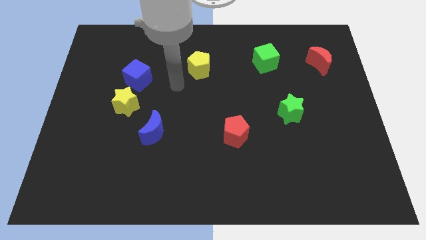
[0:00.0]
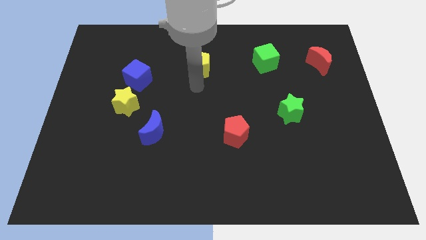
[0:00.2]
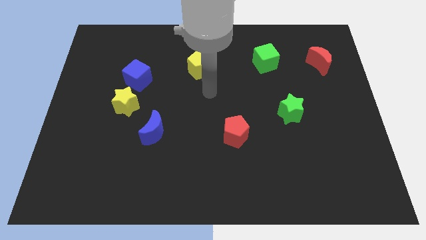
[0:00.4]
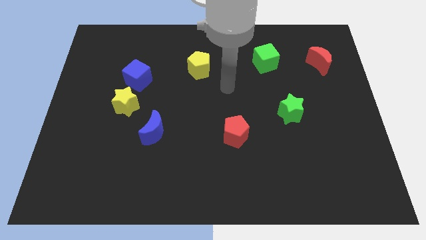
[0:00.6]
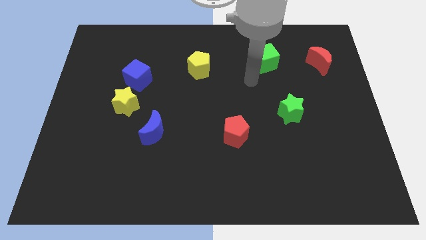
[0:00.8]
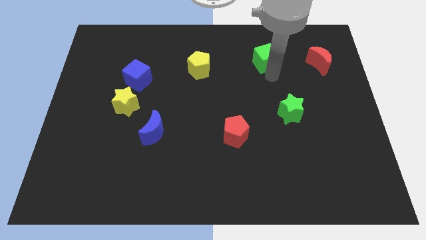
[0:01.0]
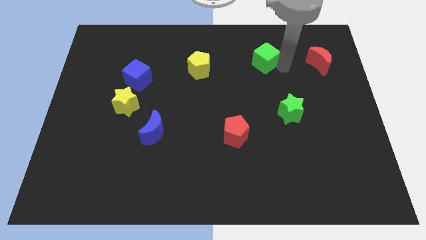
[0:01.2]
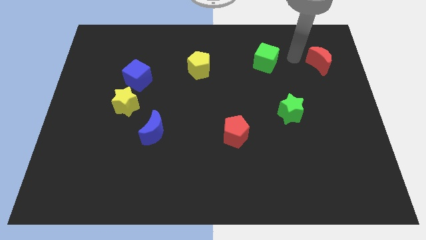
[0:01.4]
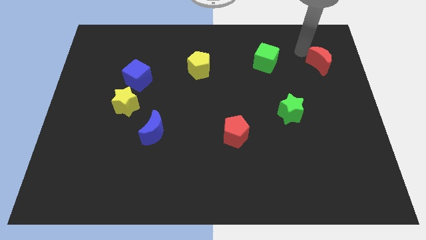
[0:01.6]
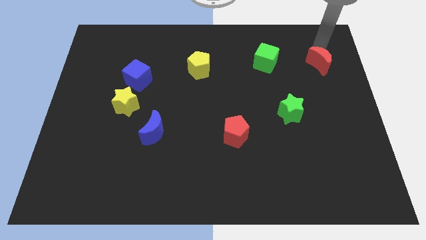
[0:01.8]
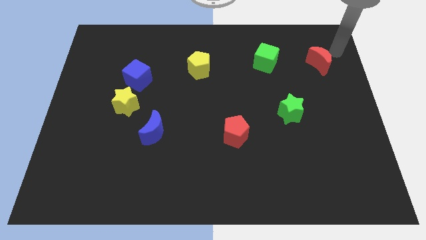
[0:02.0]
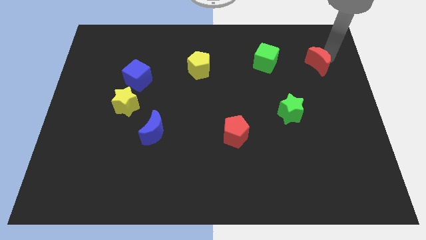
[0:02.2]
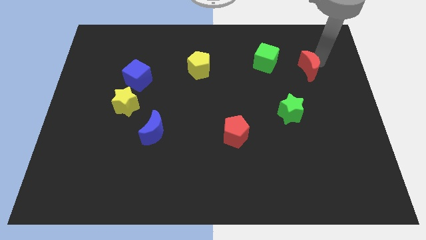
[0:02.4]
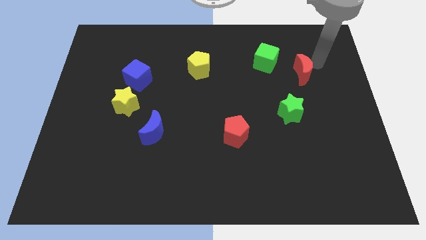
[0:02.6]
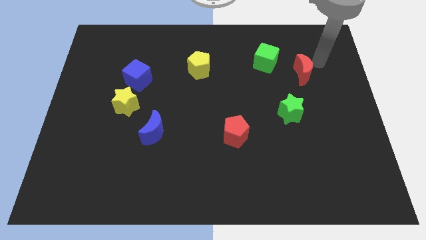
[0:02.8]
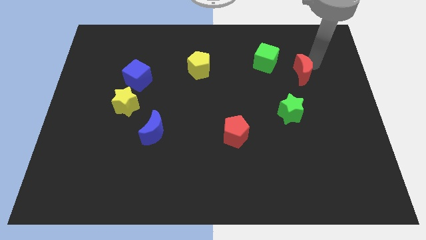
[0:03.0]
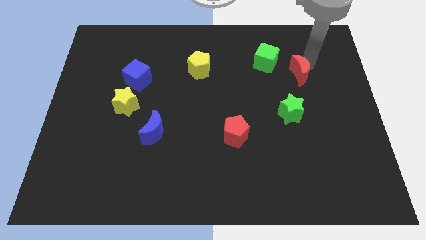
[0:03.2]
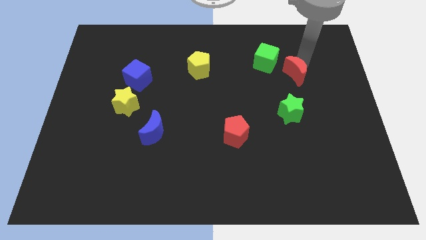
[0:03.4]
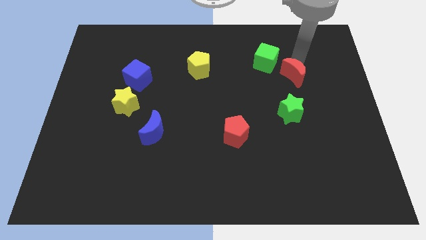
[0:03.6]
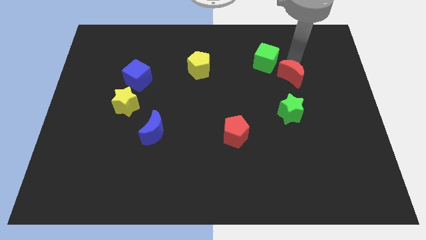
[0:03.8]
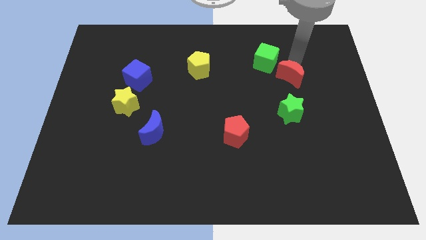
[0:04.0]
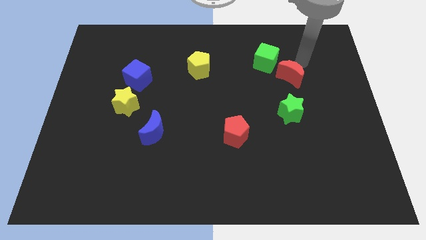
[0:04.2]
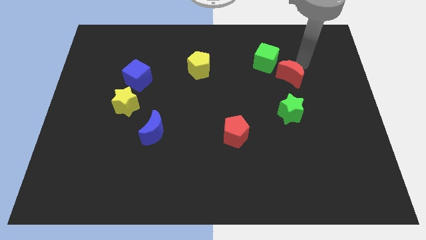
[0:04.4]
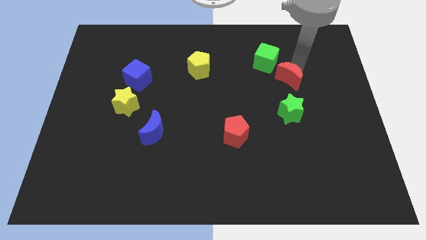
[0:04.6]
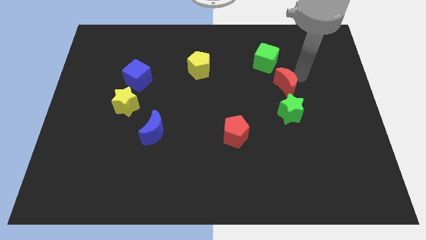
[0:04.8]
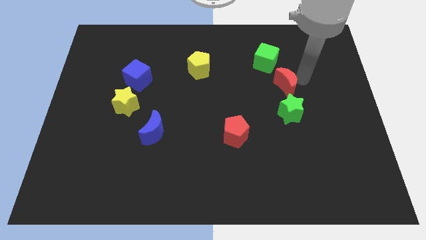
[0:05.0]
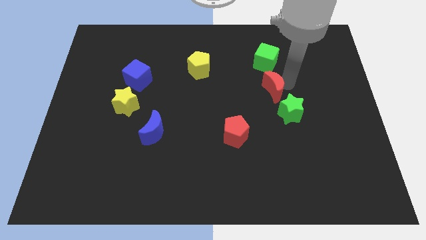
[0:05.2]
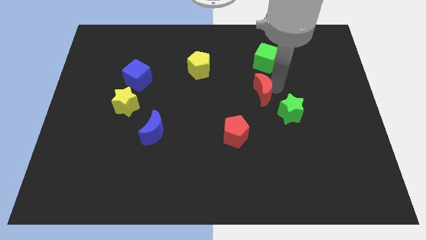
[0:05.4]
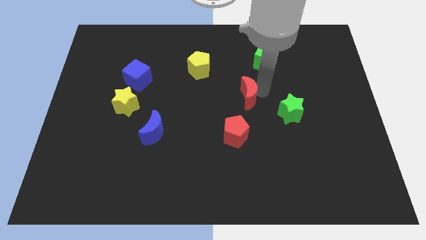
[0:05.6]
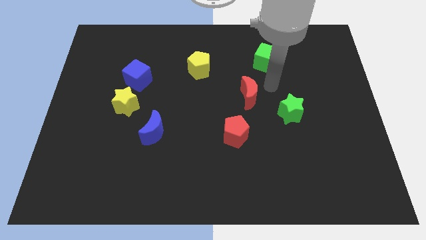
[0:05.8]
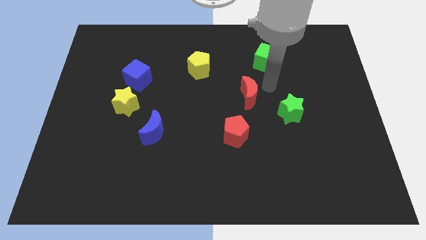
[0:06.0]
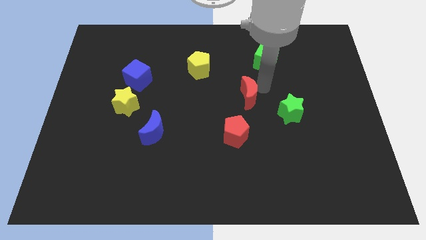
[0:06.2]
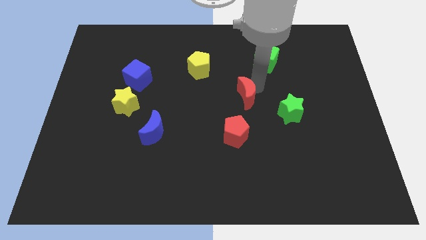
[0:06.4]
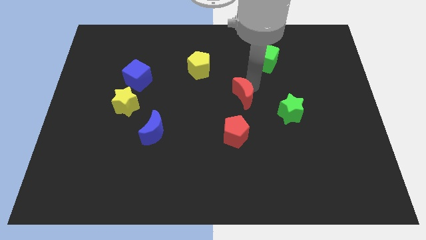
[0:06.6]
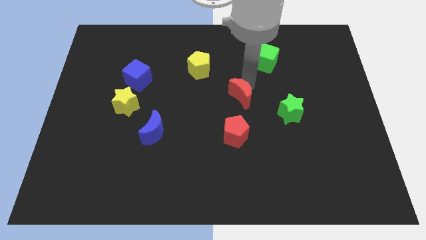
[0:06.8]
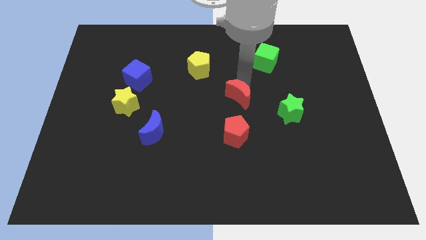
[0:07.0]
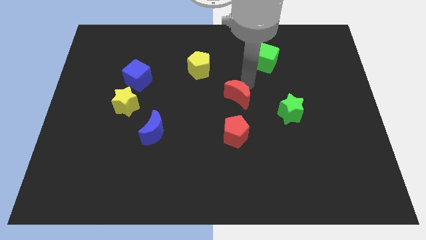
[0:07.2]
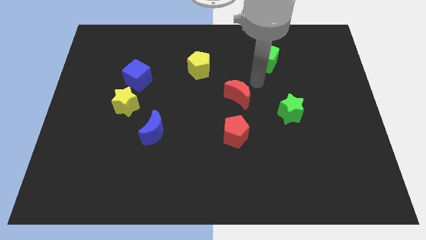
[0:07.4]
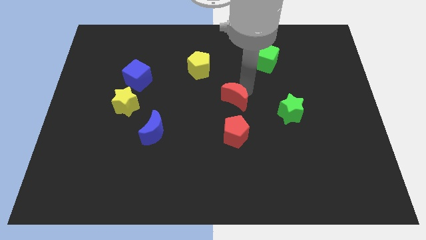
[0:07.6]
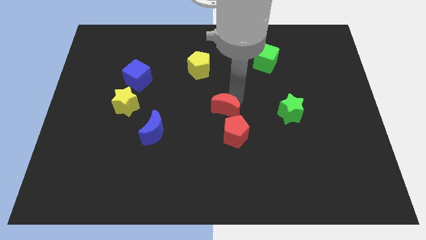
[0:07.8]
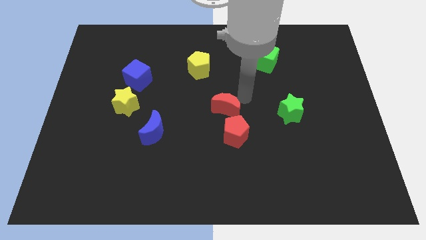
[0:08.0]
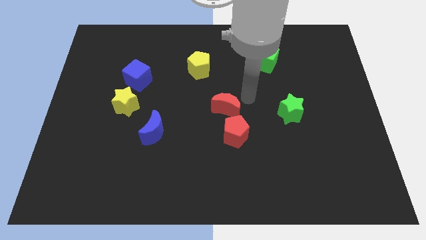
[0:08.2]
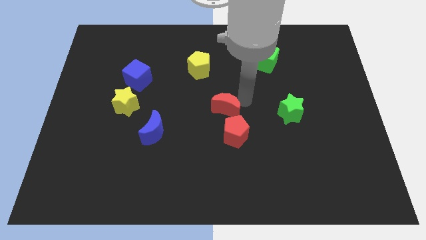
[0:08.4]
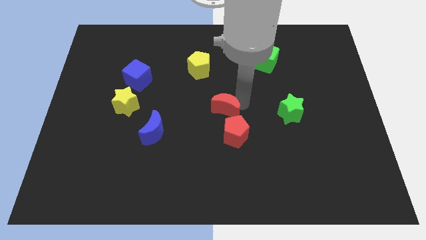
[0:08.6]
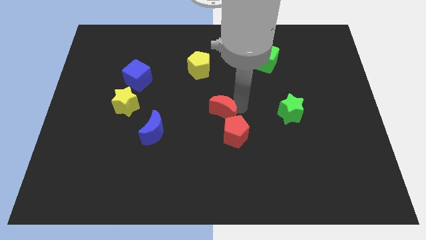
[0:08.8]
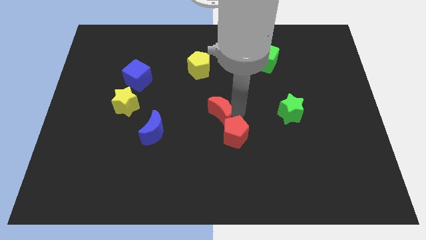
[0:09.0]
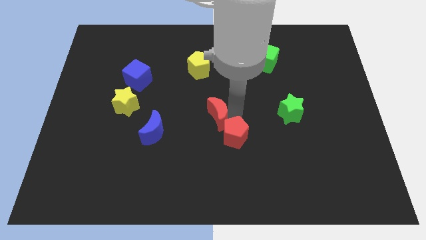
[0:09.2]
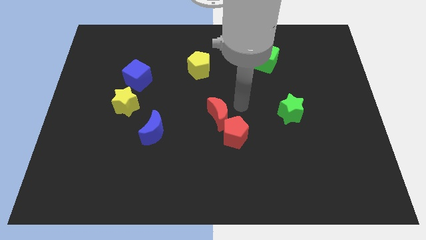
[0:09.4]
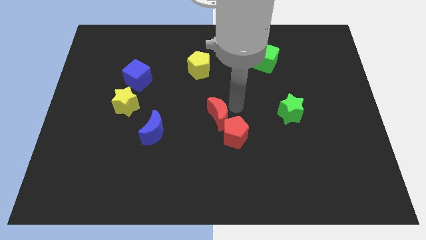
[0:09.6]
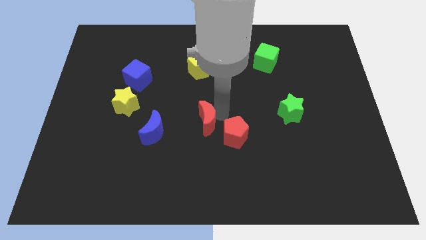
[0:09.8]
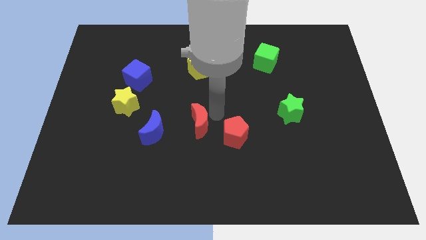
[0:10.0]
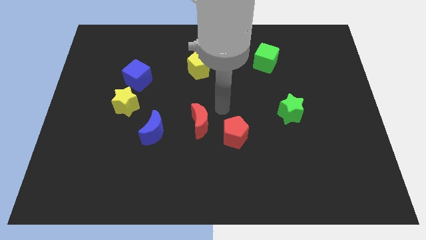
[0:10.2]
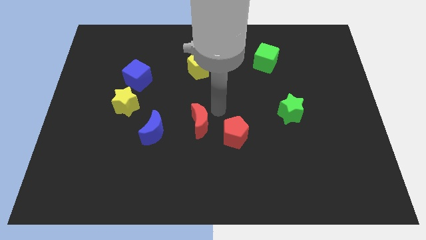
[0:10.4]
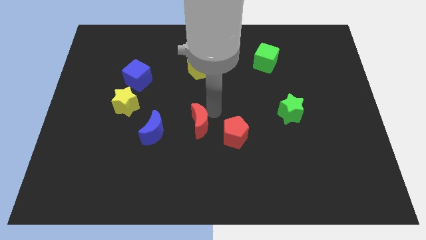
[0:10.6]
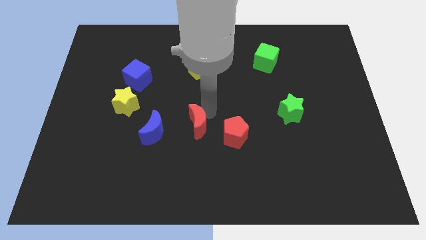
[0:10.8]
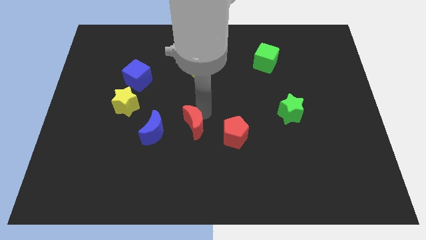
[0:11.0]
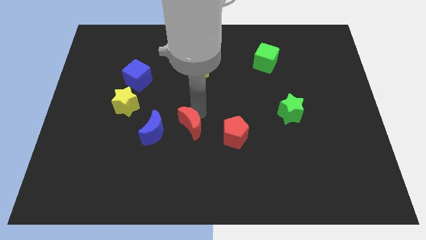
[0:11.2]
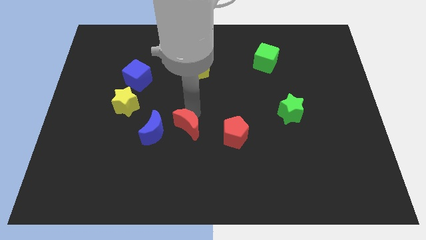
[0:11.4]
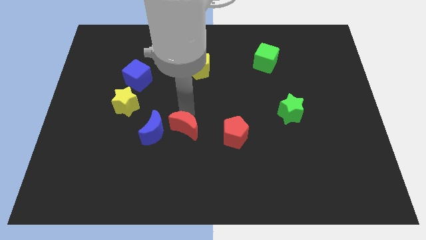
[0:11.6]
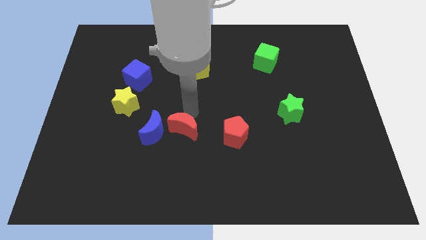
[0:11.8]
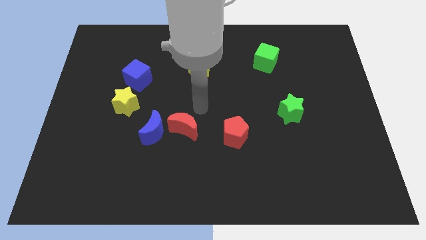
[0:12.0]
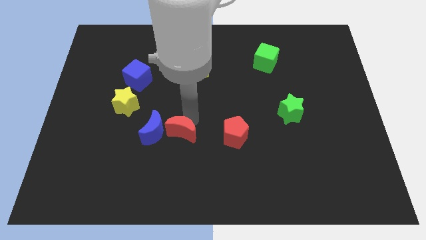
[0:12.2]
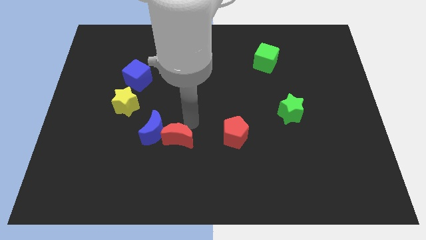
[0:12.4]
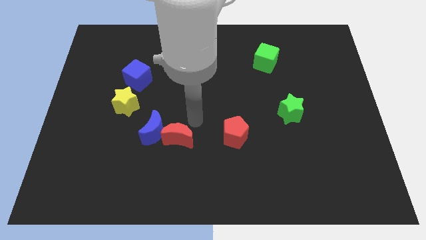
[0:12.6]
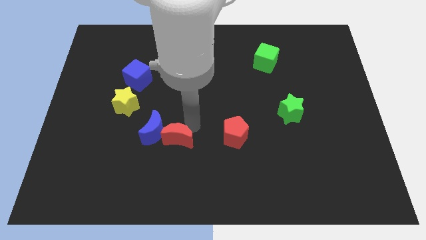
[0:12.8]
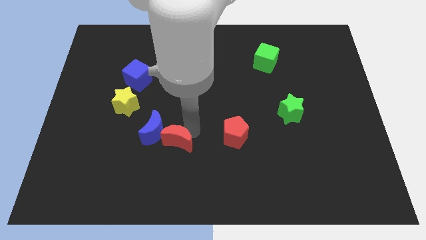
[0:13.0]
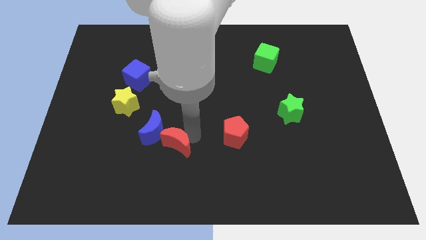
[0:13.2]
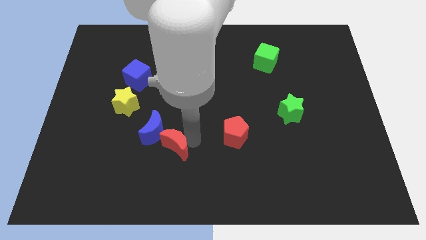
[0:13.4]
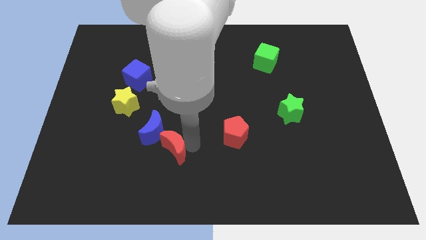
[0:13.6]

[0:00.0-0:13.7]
slide the red moon to the bottom side of the blue moon
